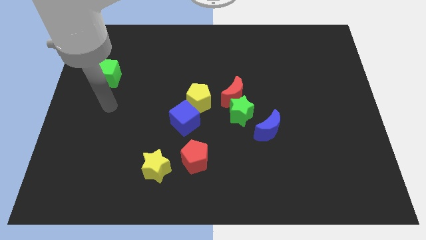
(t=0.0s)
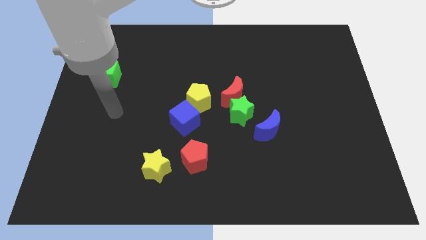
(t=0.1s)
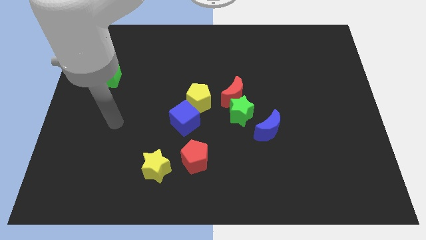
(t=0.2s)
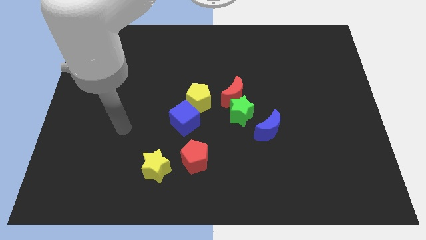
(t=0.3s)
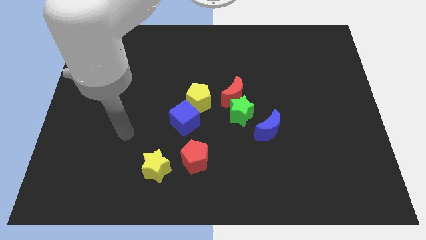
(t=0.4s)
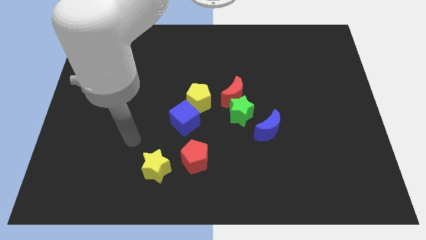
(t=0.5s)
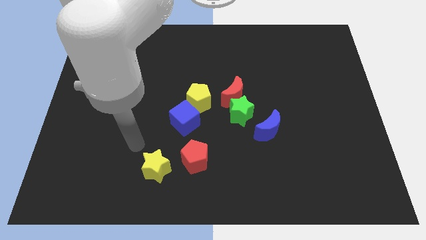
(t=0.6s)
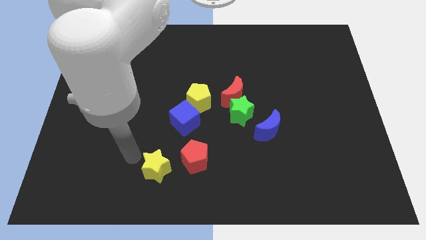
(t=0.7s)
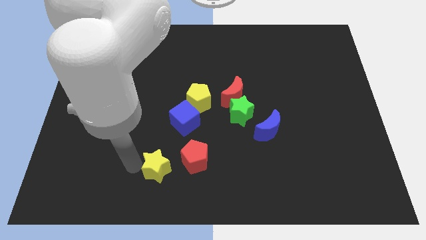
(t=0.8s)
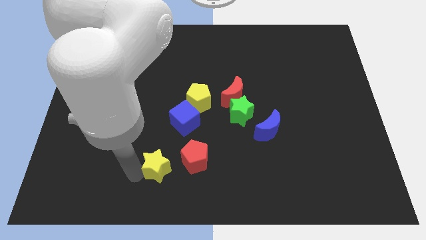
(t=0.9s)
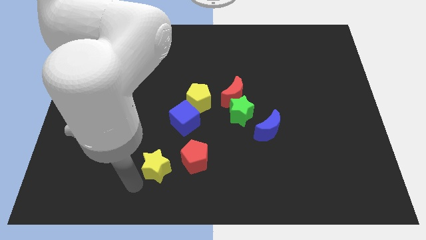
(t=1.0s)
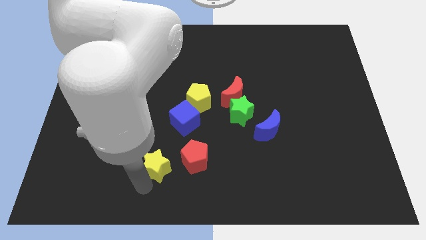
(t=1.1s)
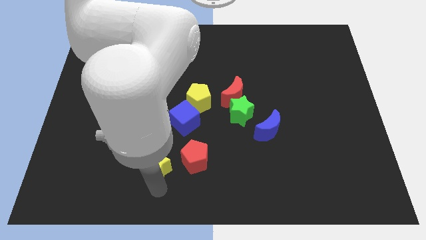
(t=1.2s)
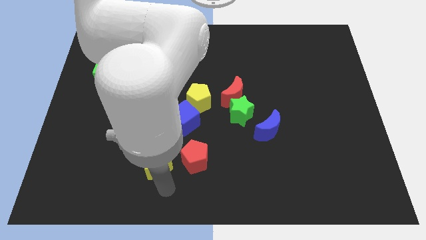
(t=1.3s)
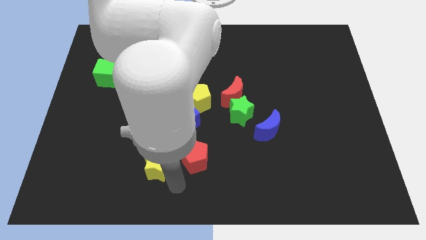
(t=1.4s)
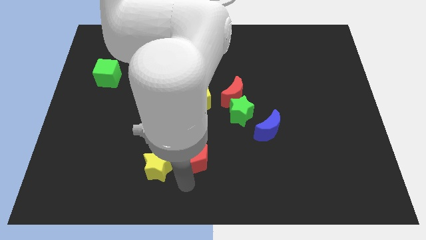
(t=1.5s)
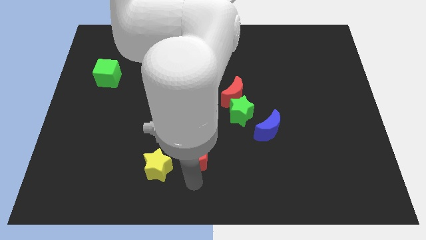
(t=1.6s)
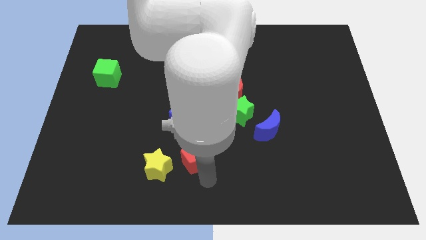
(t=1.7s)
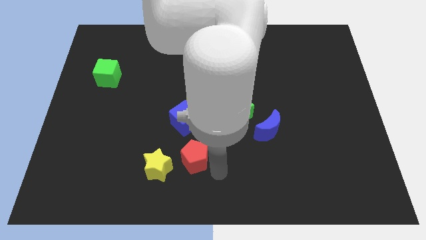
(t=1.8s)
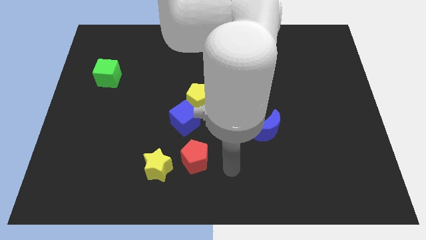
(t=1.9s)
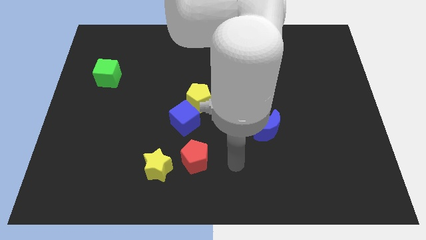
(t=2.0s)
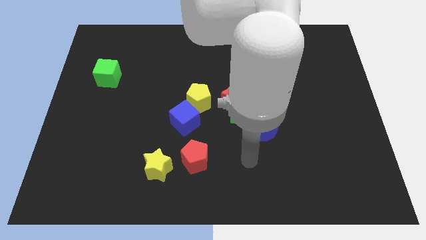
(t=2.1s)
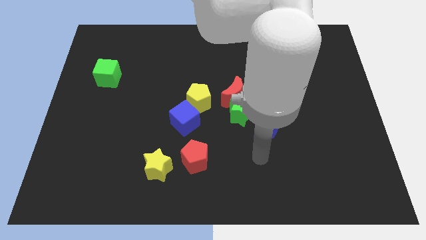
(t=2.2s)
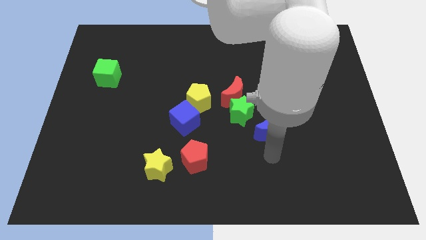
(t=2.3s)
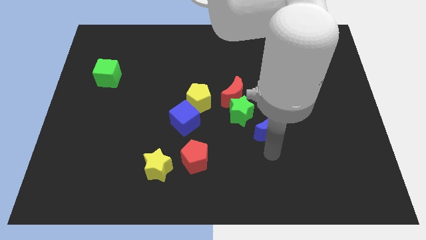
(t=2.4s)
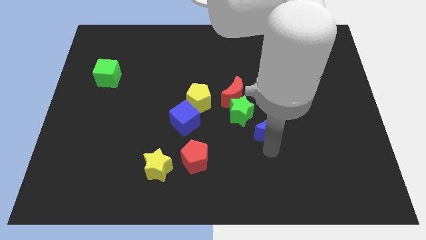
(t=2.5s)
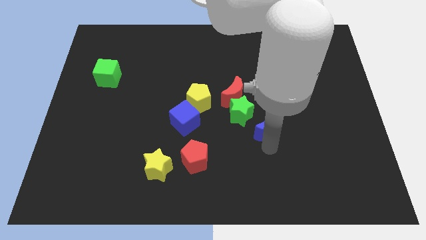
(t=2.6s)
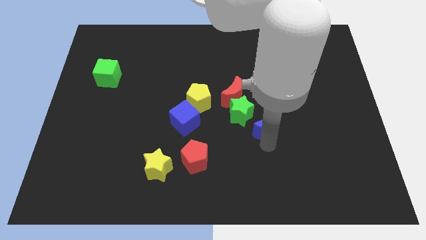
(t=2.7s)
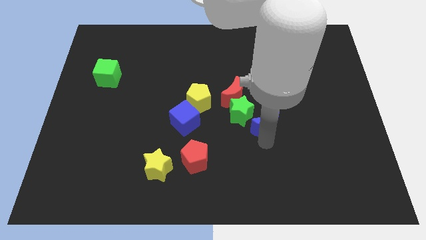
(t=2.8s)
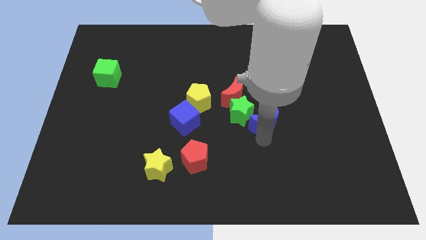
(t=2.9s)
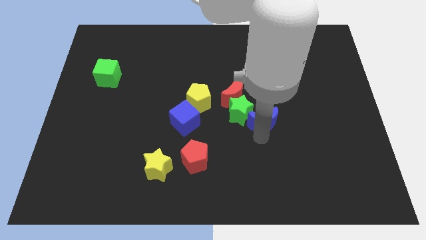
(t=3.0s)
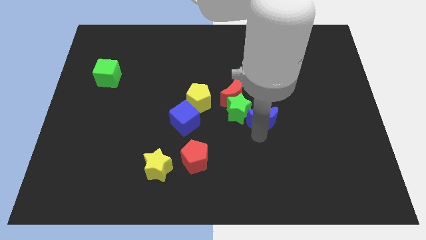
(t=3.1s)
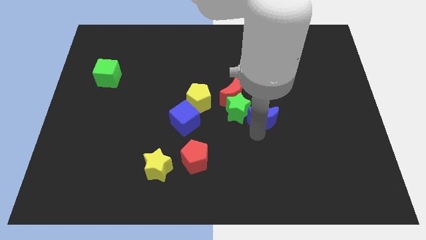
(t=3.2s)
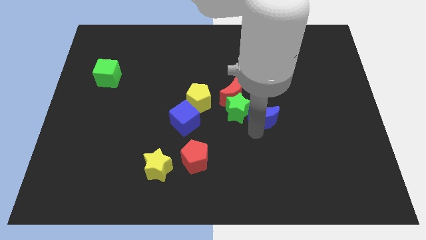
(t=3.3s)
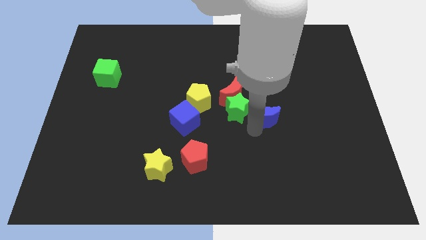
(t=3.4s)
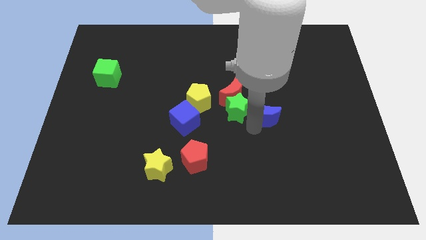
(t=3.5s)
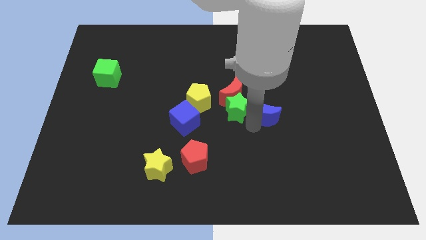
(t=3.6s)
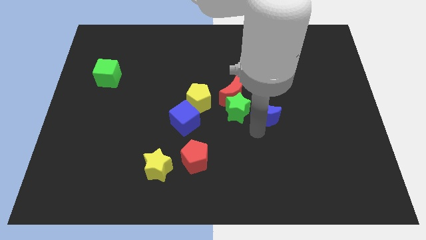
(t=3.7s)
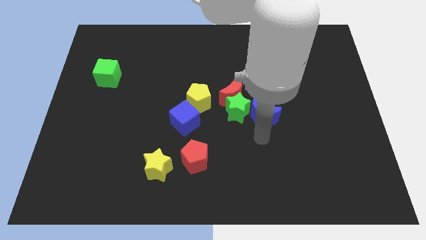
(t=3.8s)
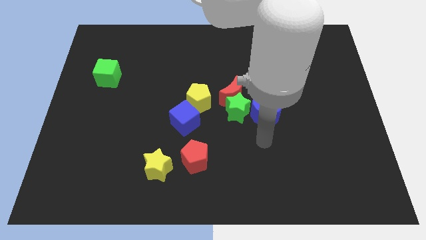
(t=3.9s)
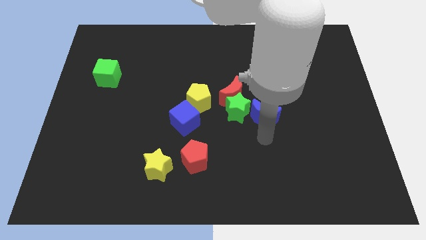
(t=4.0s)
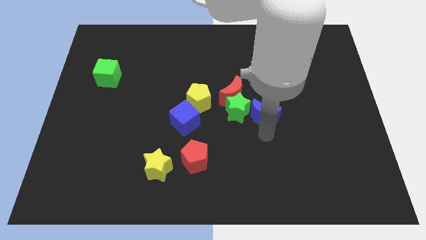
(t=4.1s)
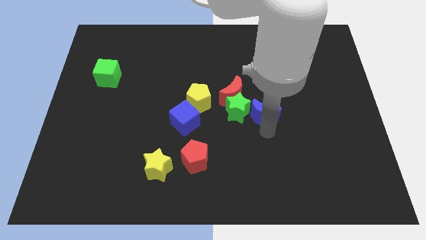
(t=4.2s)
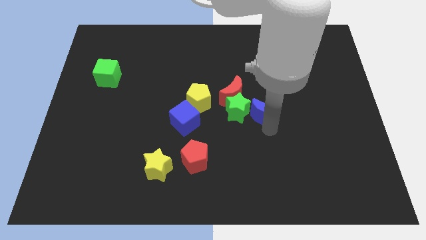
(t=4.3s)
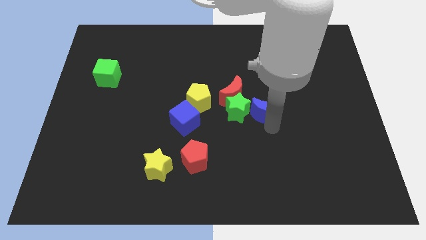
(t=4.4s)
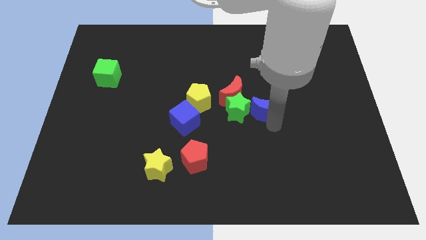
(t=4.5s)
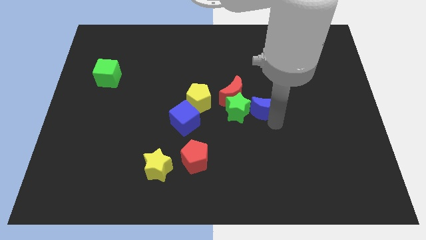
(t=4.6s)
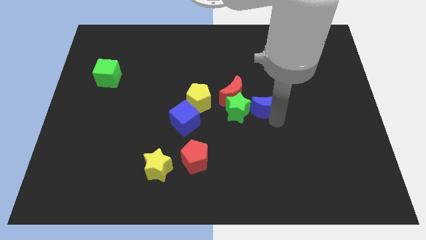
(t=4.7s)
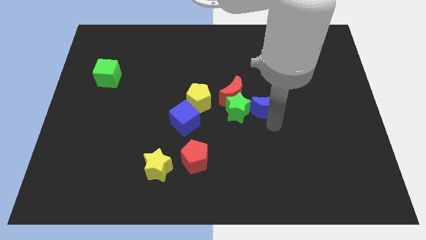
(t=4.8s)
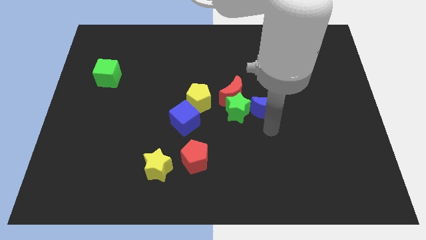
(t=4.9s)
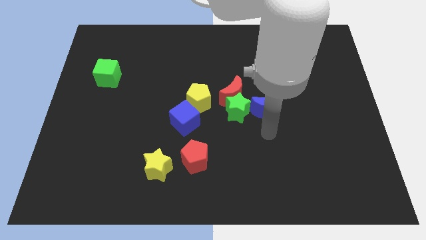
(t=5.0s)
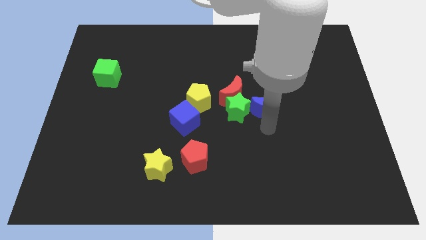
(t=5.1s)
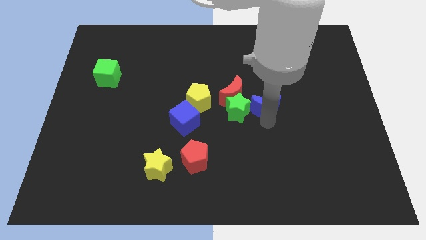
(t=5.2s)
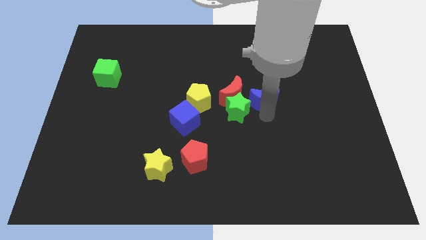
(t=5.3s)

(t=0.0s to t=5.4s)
move the blue moon upwards a little

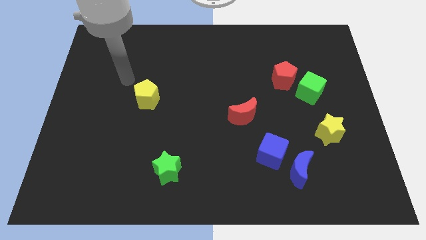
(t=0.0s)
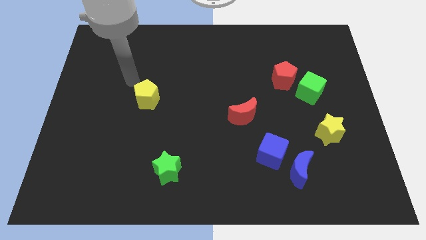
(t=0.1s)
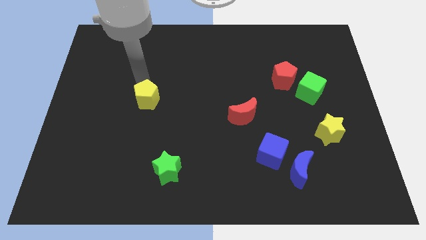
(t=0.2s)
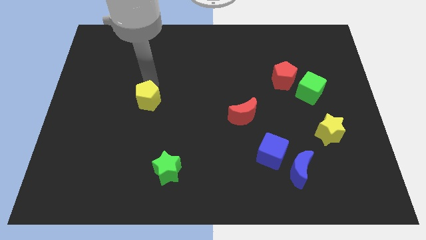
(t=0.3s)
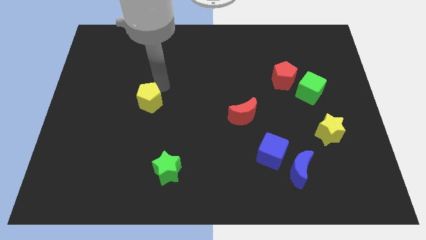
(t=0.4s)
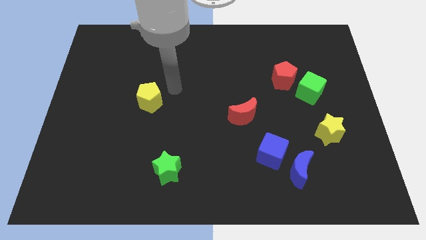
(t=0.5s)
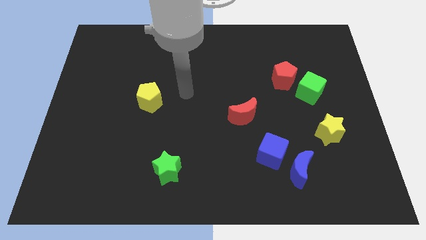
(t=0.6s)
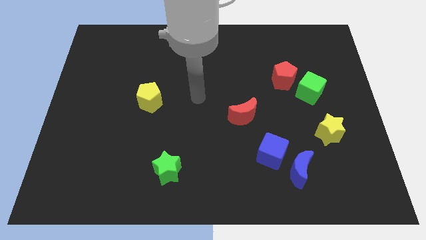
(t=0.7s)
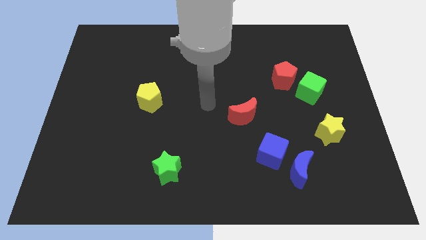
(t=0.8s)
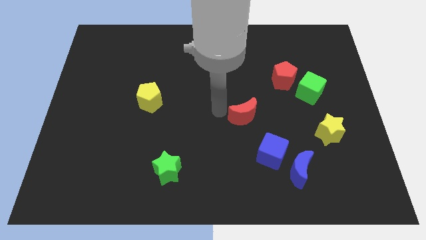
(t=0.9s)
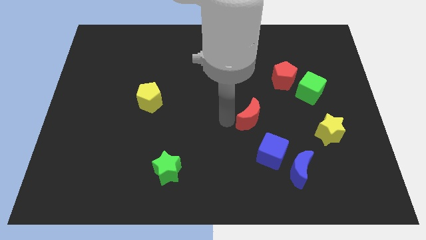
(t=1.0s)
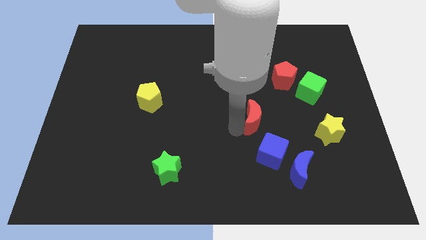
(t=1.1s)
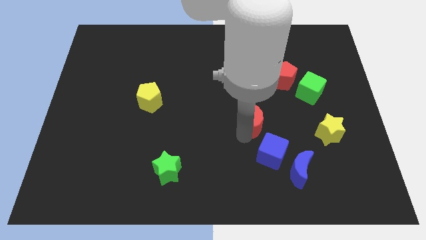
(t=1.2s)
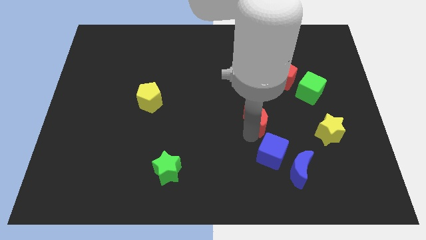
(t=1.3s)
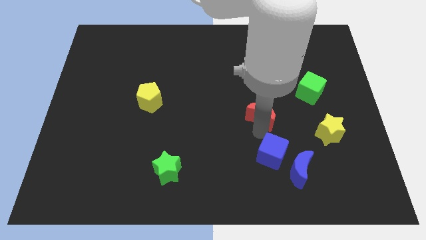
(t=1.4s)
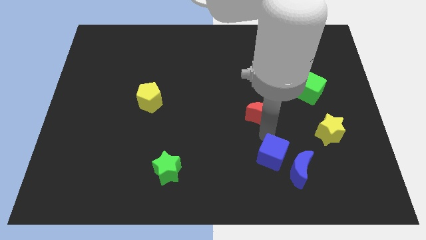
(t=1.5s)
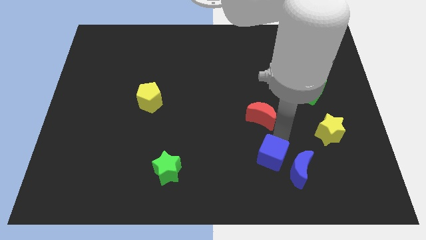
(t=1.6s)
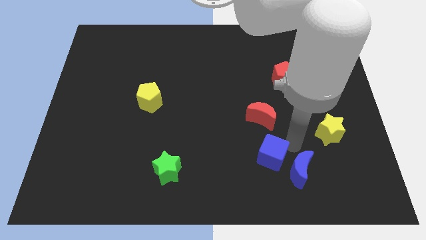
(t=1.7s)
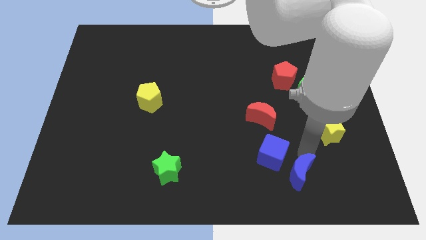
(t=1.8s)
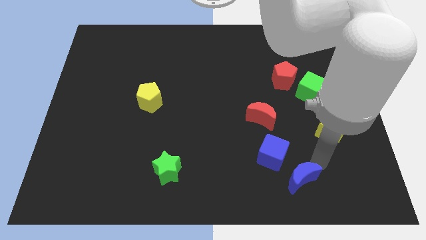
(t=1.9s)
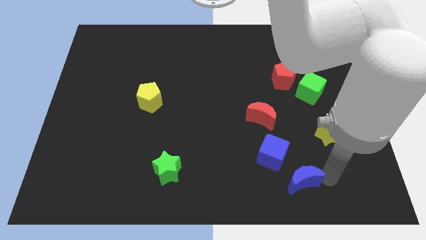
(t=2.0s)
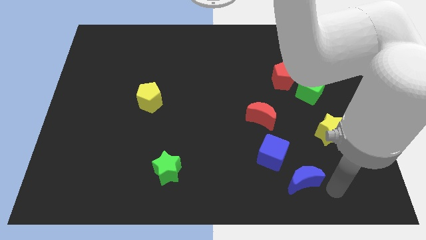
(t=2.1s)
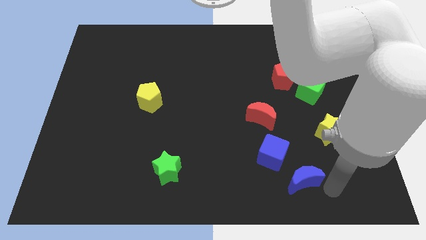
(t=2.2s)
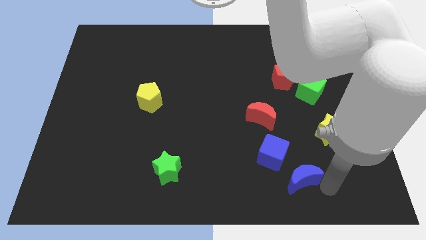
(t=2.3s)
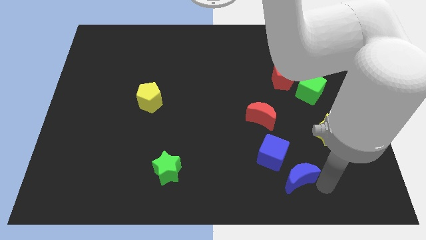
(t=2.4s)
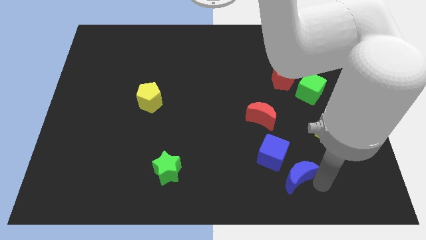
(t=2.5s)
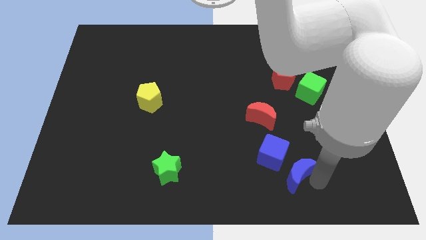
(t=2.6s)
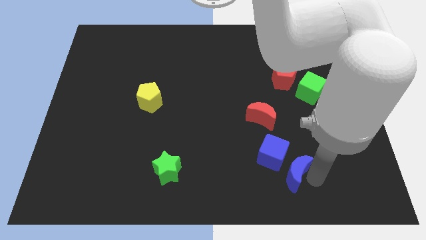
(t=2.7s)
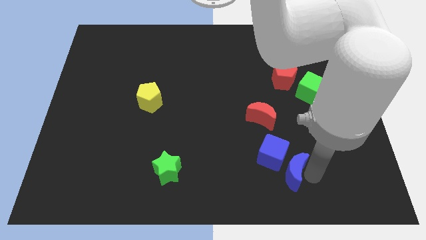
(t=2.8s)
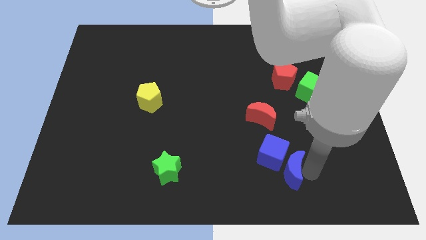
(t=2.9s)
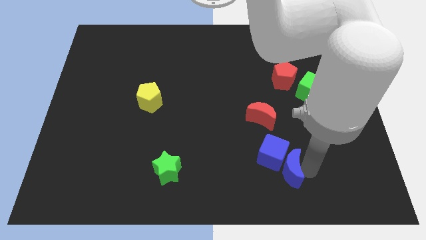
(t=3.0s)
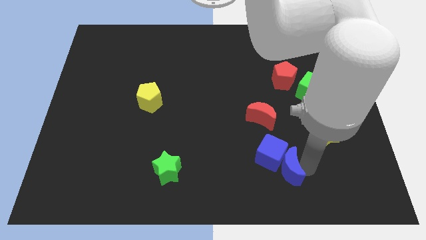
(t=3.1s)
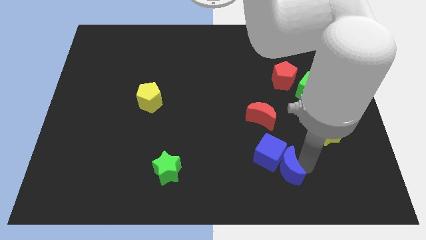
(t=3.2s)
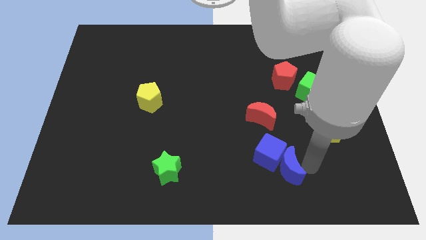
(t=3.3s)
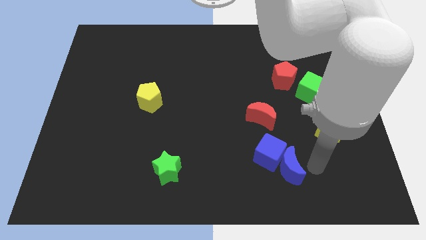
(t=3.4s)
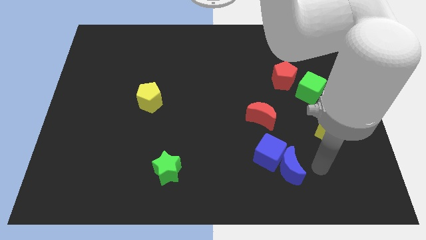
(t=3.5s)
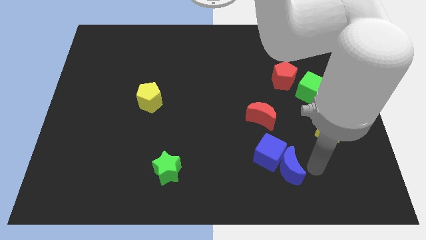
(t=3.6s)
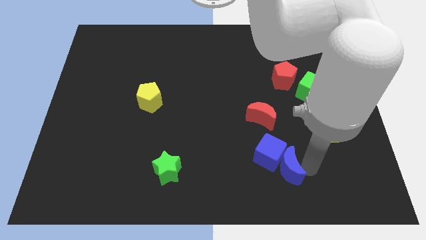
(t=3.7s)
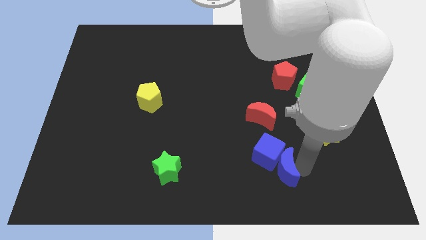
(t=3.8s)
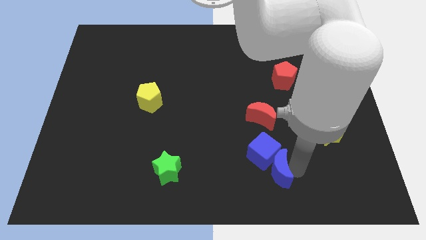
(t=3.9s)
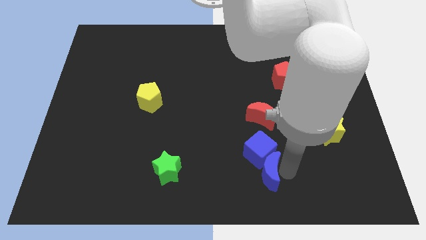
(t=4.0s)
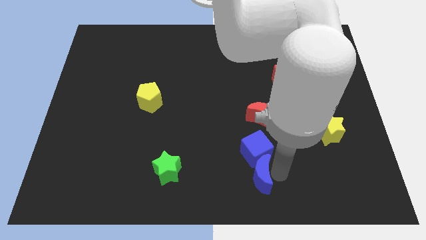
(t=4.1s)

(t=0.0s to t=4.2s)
move the blue moon slightly left
